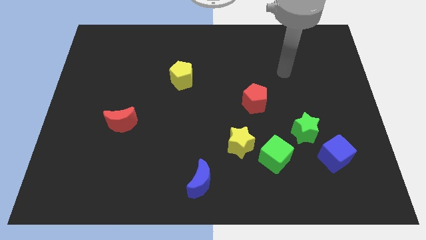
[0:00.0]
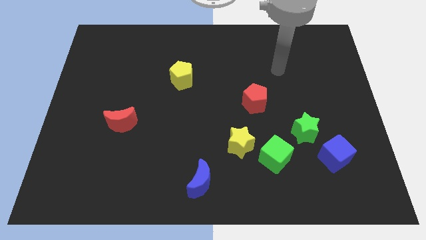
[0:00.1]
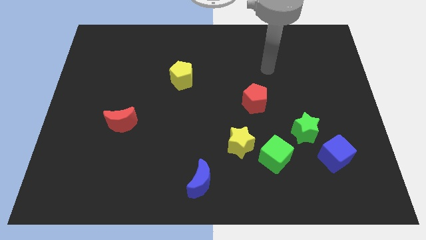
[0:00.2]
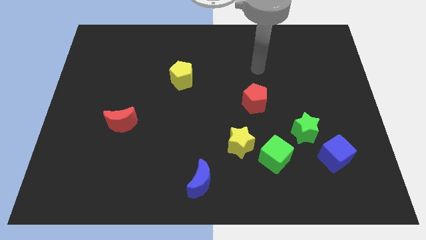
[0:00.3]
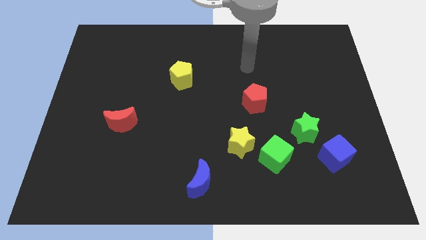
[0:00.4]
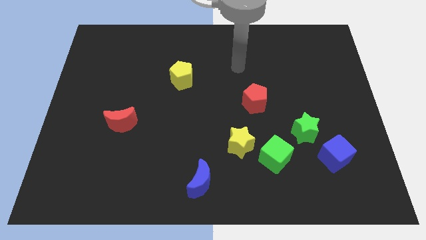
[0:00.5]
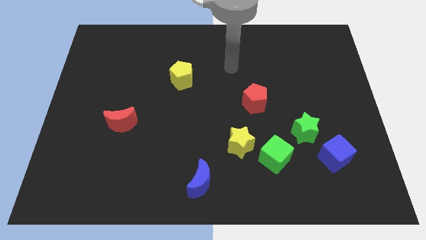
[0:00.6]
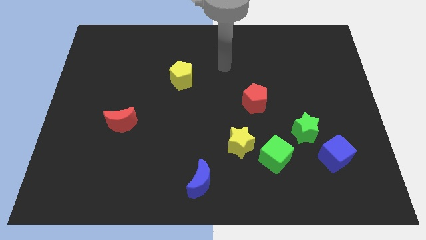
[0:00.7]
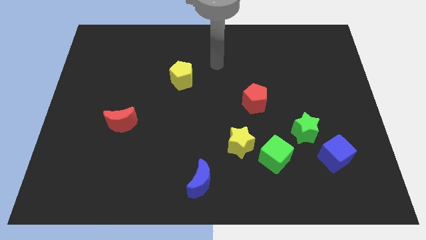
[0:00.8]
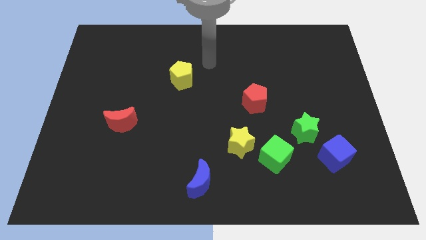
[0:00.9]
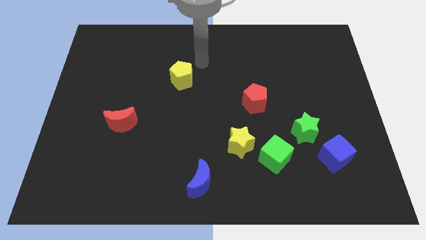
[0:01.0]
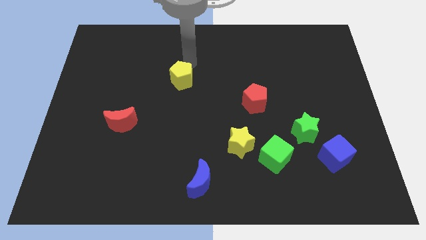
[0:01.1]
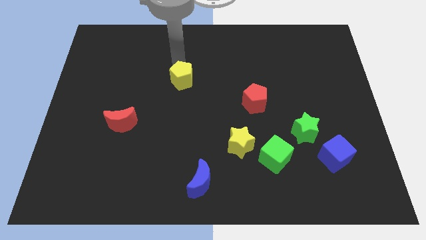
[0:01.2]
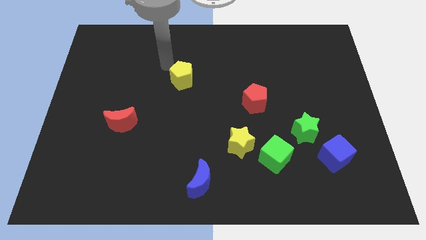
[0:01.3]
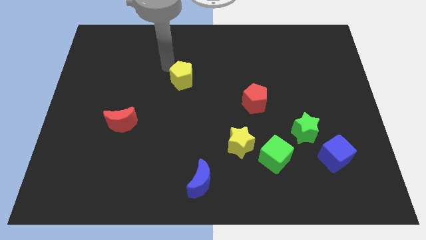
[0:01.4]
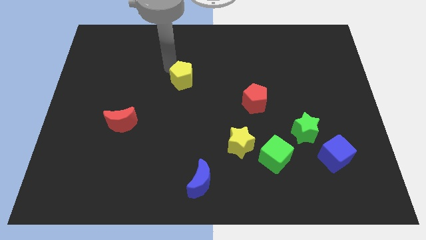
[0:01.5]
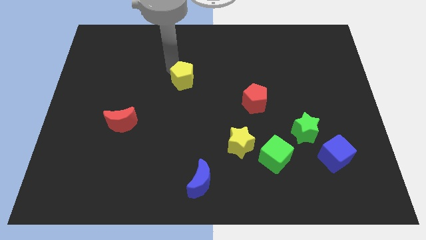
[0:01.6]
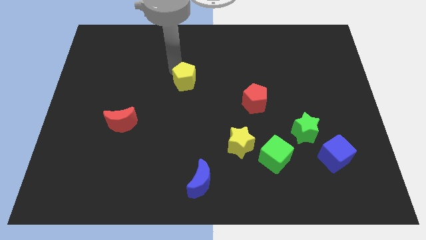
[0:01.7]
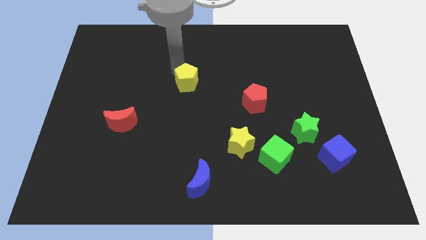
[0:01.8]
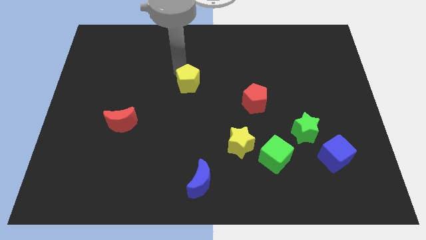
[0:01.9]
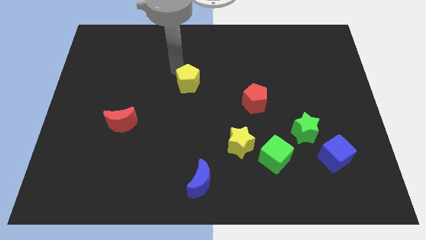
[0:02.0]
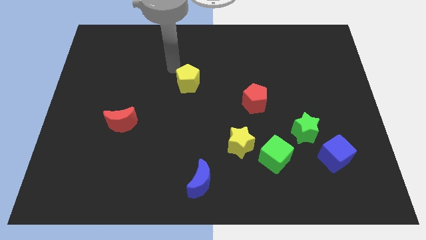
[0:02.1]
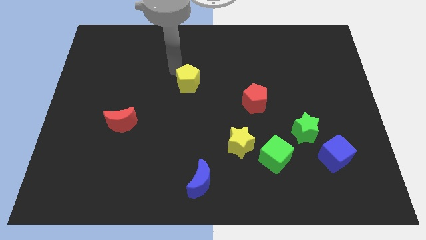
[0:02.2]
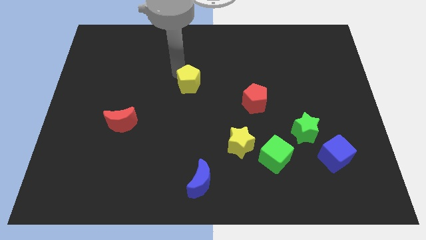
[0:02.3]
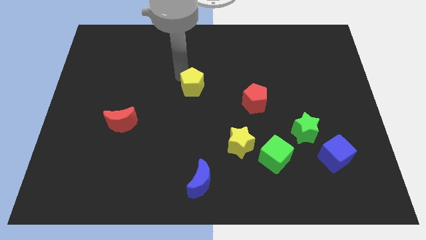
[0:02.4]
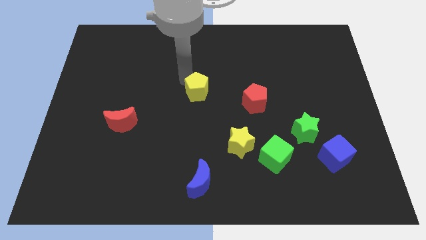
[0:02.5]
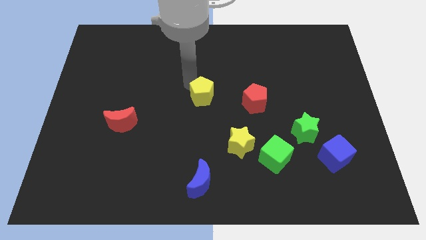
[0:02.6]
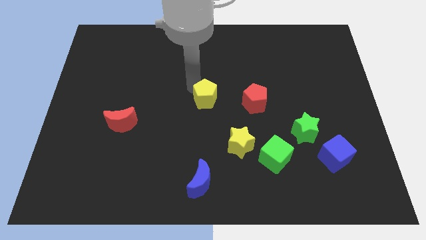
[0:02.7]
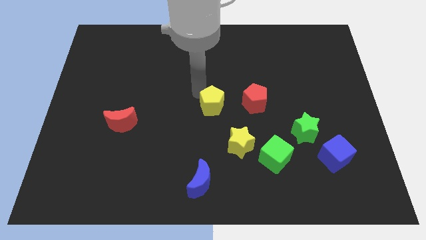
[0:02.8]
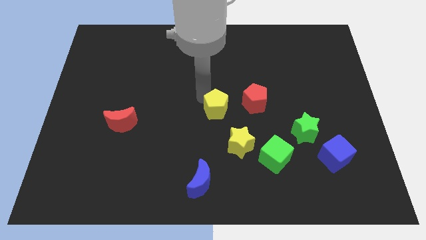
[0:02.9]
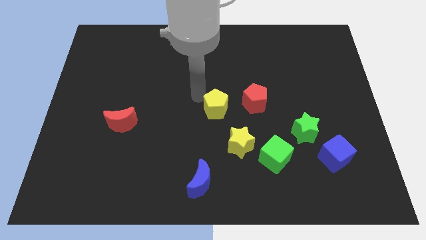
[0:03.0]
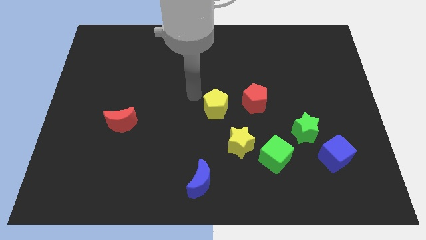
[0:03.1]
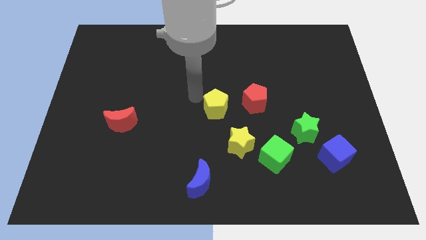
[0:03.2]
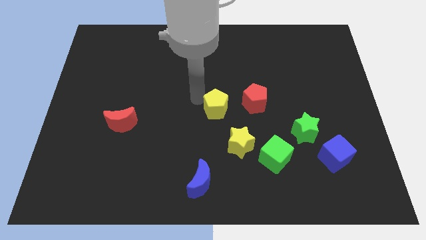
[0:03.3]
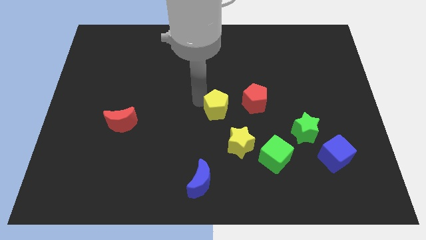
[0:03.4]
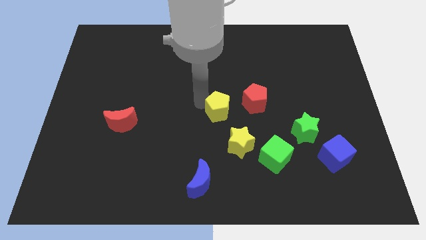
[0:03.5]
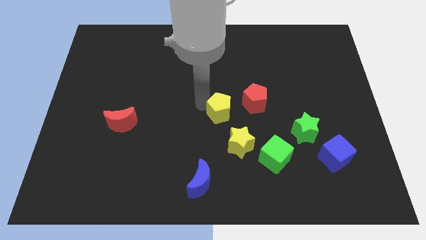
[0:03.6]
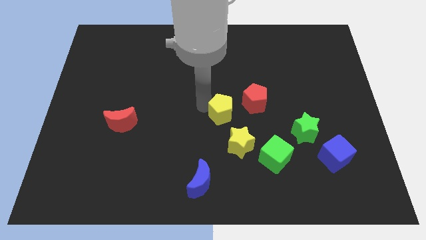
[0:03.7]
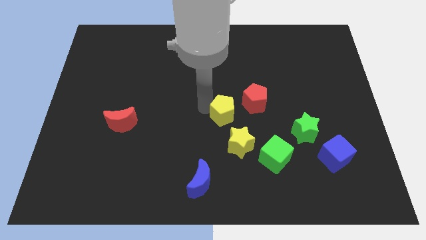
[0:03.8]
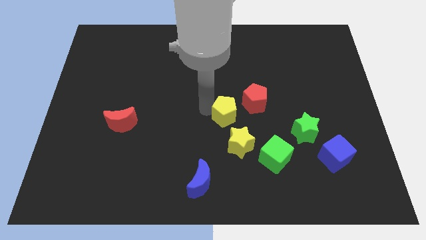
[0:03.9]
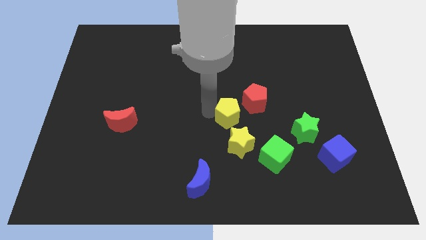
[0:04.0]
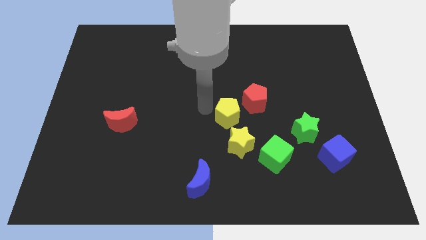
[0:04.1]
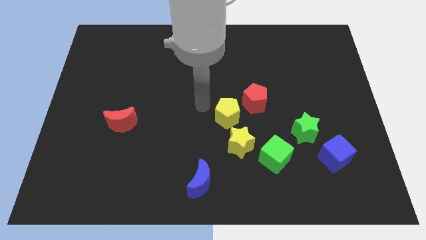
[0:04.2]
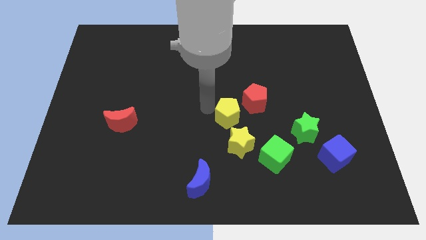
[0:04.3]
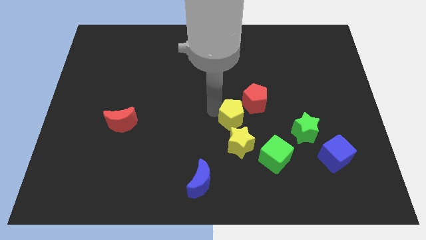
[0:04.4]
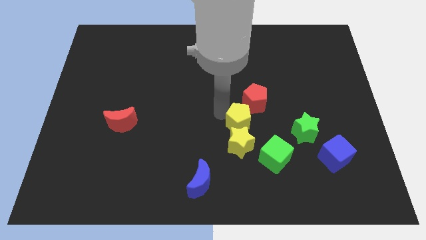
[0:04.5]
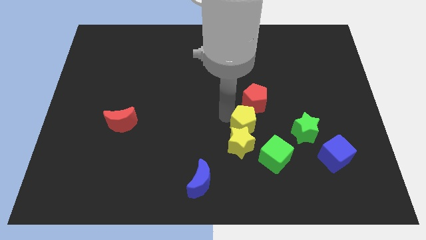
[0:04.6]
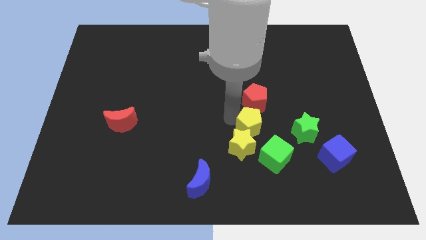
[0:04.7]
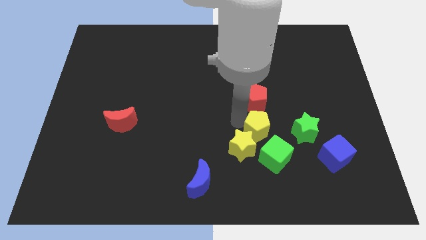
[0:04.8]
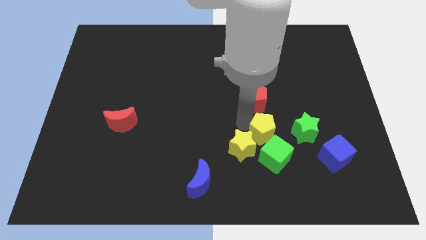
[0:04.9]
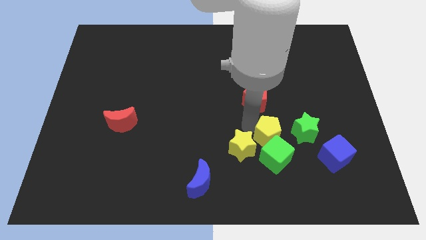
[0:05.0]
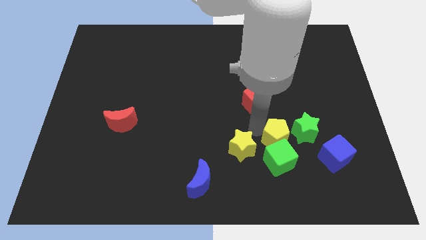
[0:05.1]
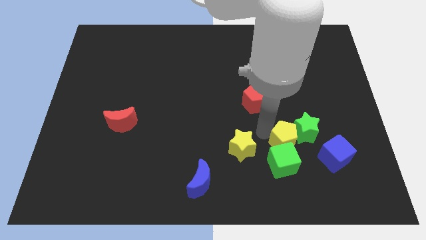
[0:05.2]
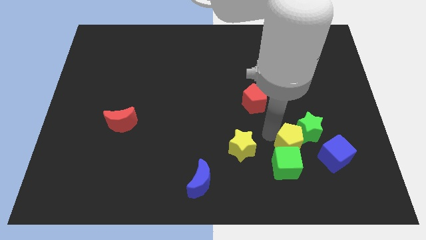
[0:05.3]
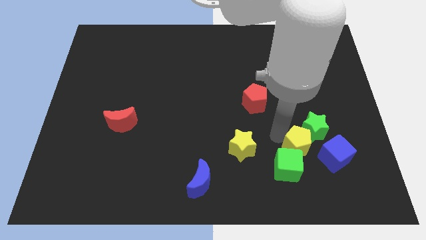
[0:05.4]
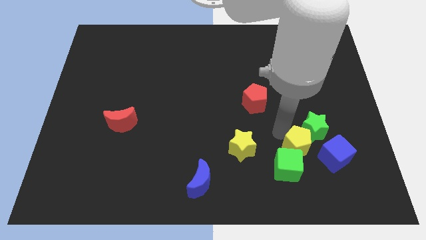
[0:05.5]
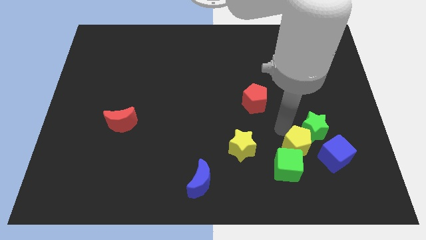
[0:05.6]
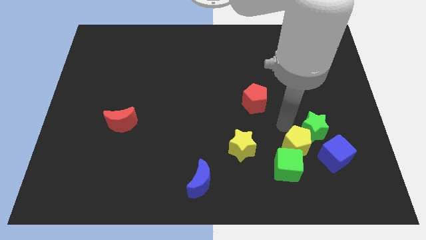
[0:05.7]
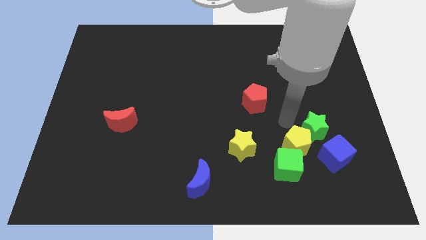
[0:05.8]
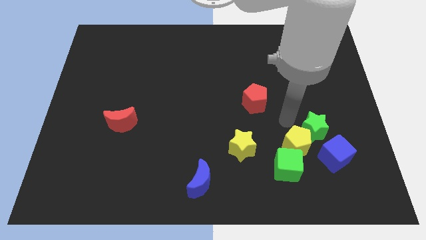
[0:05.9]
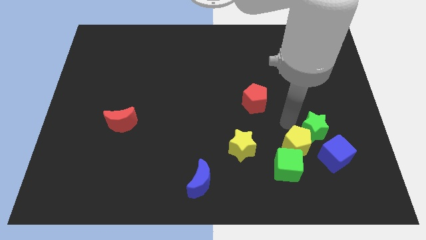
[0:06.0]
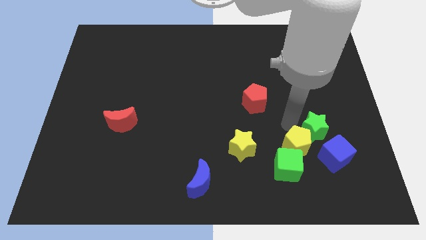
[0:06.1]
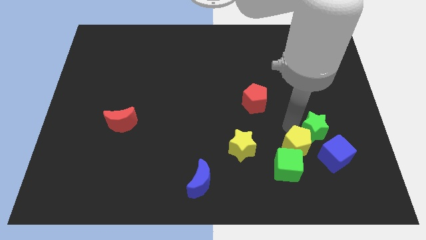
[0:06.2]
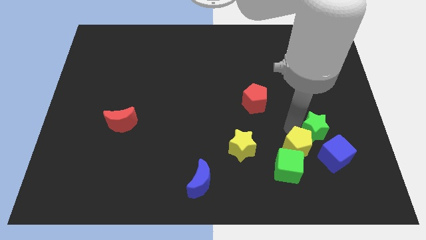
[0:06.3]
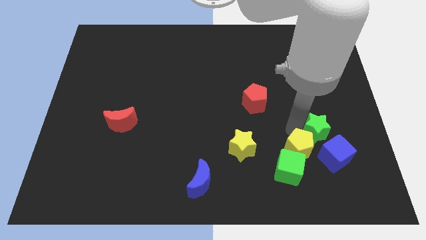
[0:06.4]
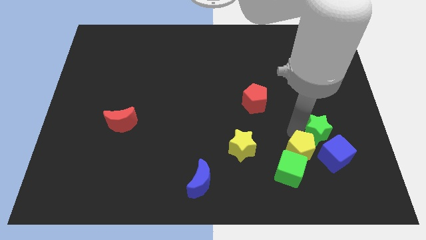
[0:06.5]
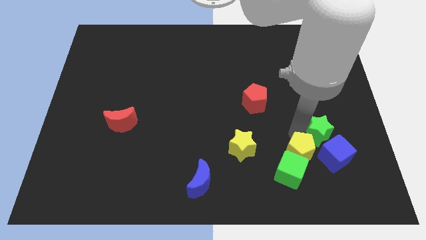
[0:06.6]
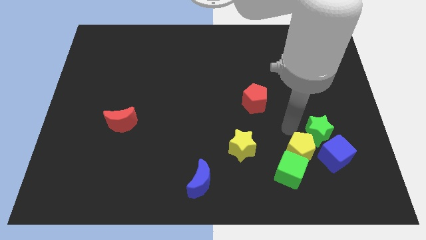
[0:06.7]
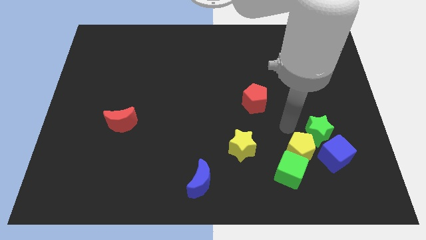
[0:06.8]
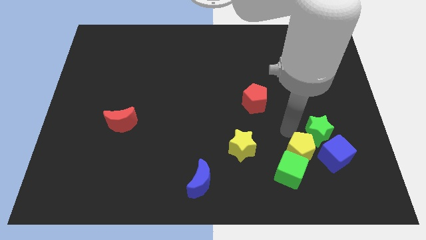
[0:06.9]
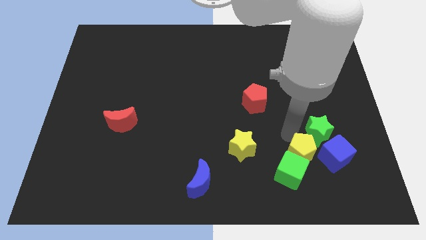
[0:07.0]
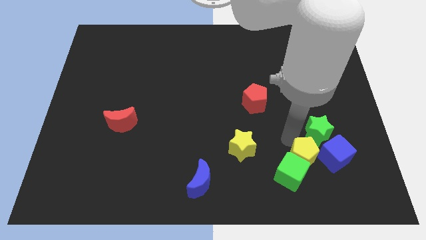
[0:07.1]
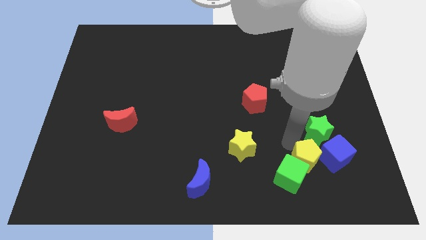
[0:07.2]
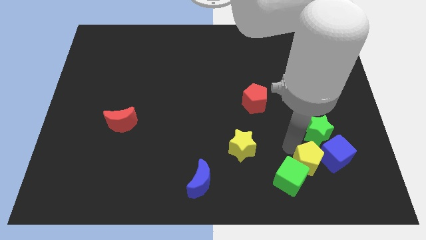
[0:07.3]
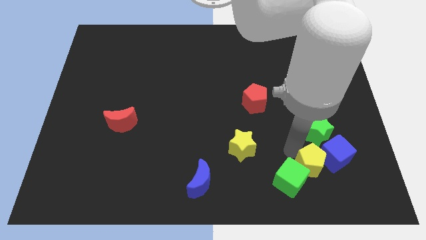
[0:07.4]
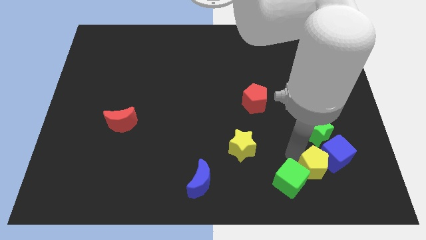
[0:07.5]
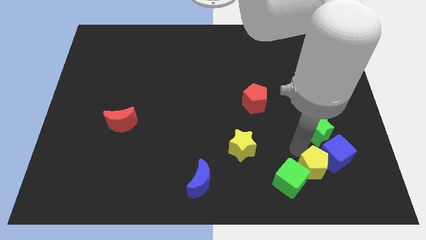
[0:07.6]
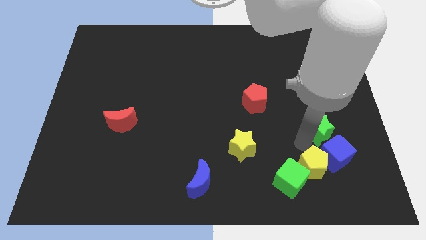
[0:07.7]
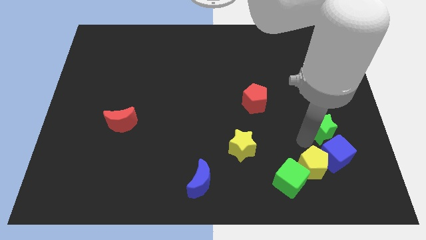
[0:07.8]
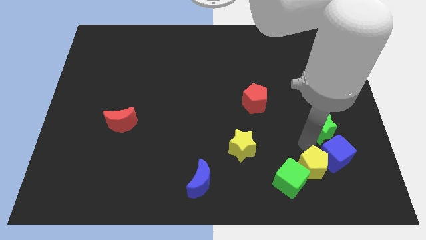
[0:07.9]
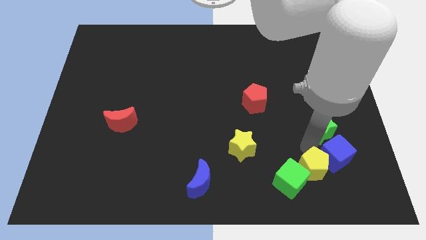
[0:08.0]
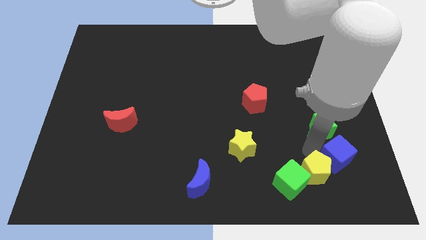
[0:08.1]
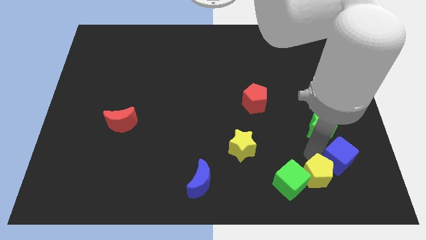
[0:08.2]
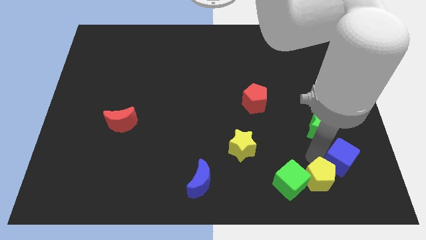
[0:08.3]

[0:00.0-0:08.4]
move the yellow pentagon to the bottom right of the green cube
